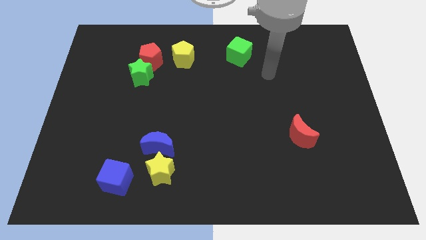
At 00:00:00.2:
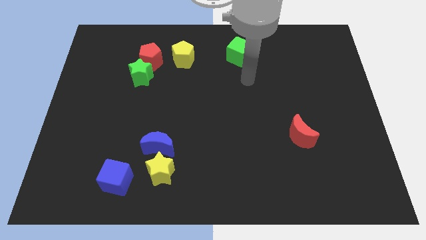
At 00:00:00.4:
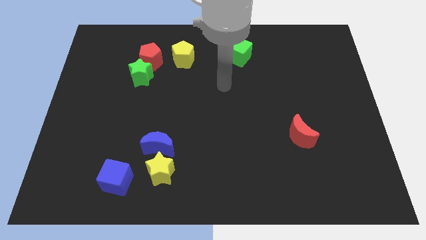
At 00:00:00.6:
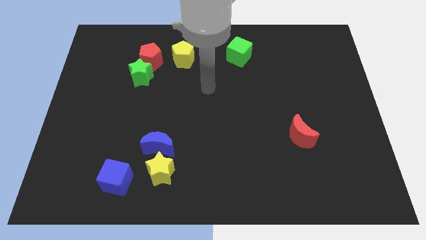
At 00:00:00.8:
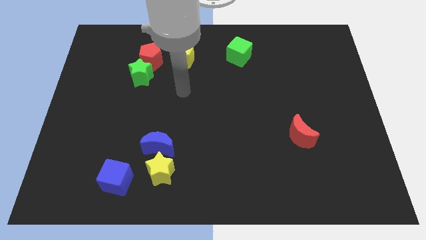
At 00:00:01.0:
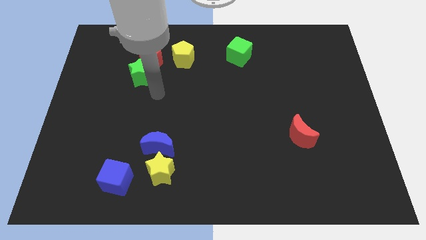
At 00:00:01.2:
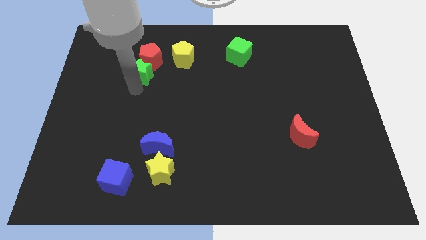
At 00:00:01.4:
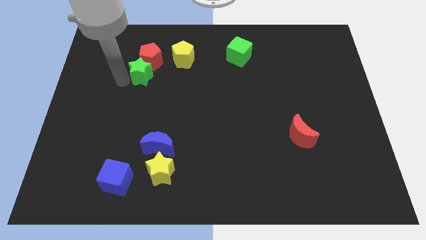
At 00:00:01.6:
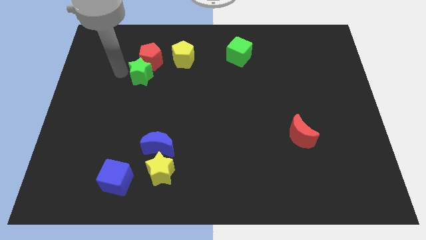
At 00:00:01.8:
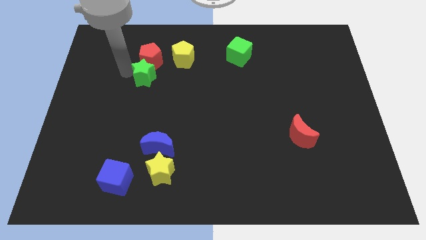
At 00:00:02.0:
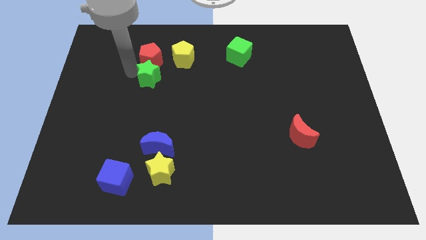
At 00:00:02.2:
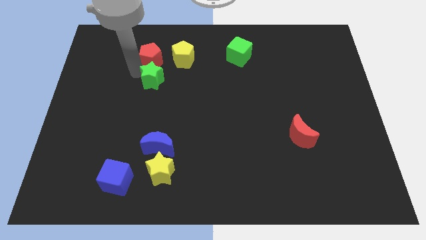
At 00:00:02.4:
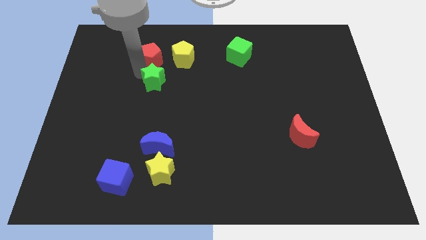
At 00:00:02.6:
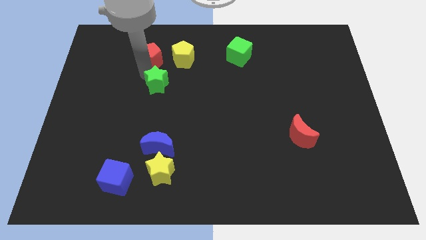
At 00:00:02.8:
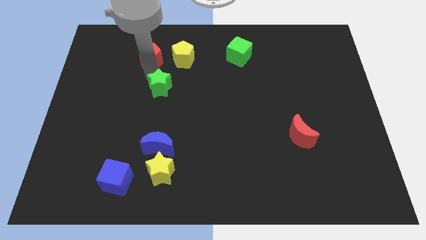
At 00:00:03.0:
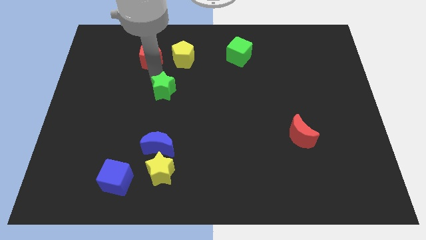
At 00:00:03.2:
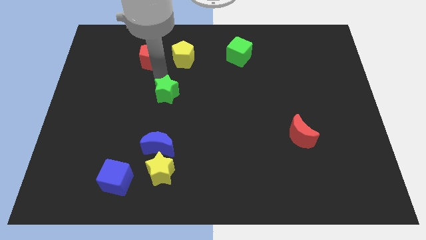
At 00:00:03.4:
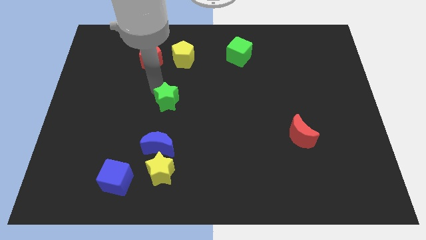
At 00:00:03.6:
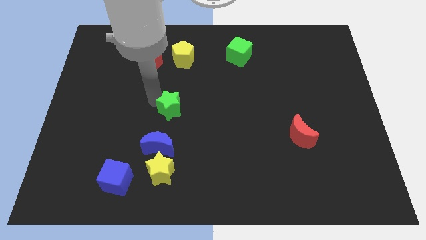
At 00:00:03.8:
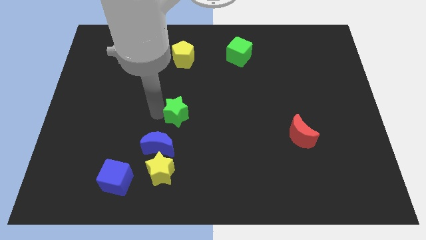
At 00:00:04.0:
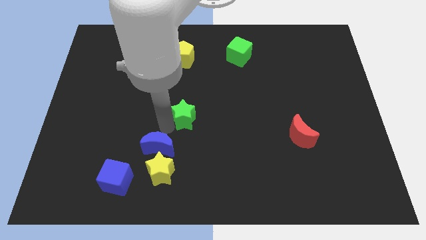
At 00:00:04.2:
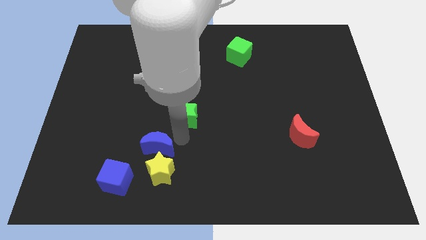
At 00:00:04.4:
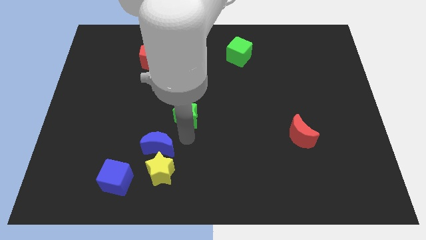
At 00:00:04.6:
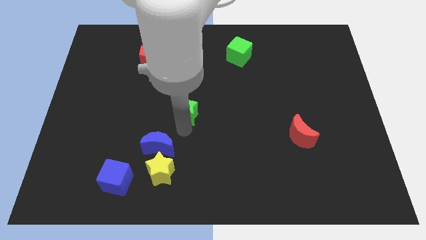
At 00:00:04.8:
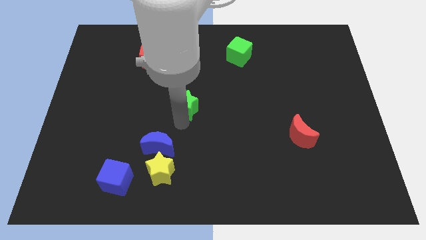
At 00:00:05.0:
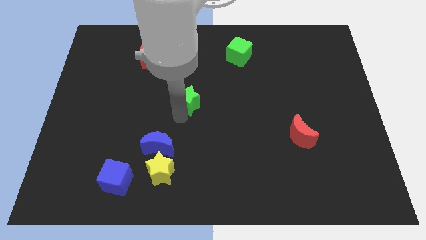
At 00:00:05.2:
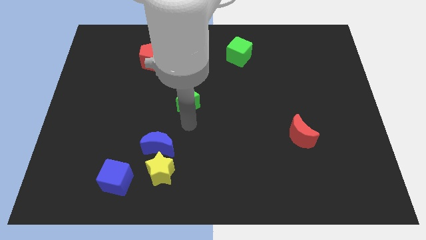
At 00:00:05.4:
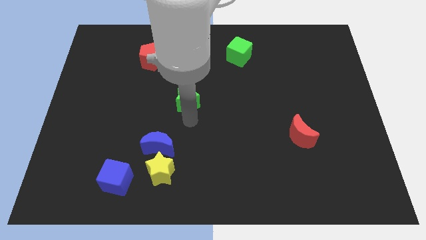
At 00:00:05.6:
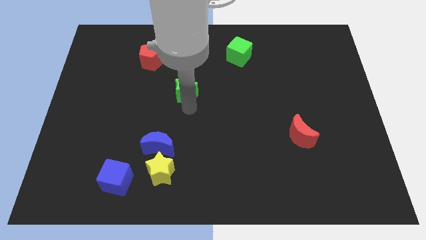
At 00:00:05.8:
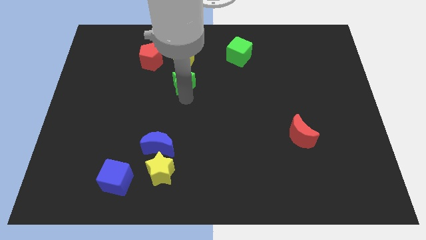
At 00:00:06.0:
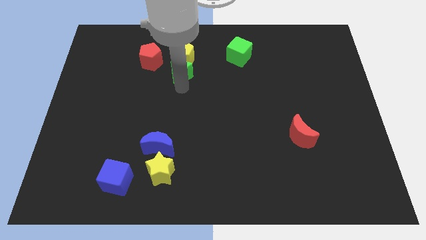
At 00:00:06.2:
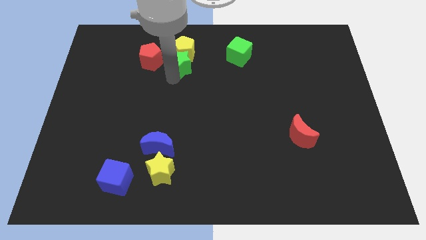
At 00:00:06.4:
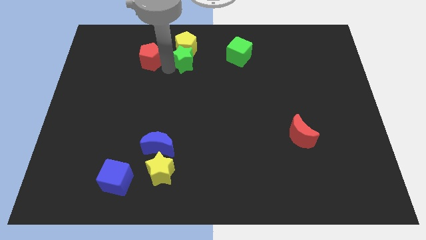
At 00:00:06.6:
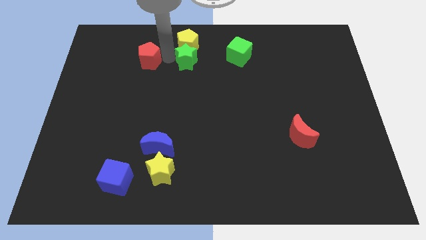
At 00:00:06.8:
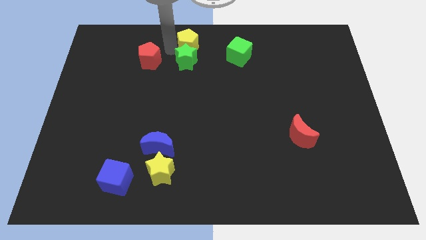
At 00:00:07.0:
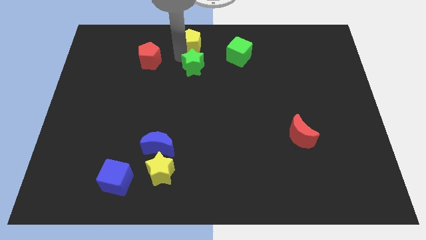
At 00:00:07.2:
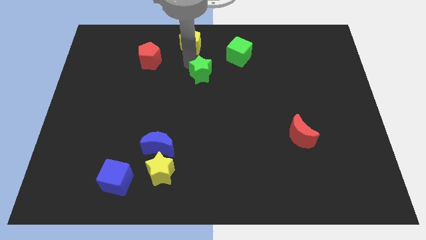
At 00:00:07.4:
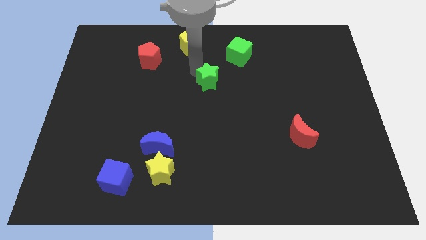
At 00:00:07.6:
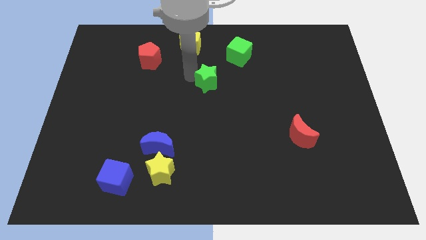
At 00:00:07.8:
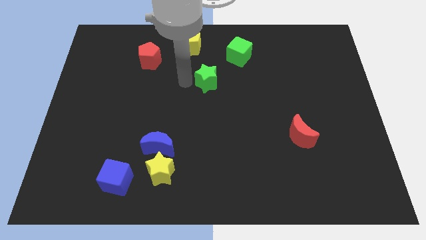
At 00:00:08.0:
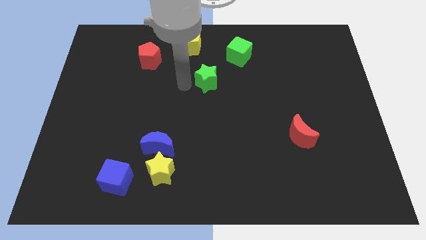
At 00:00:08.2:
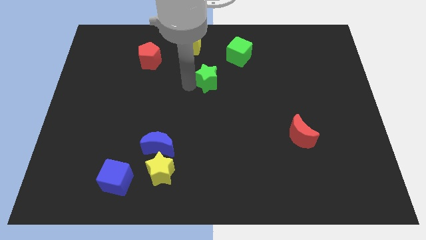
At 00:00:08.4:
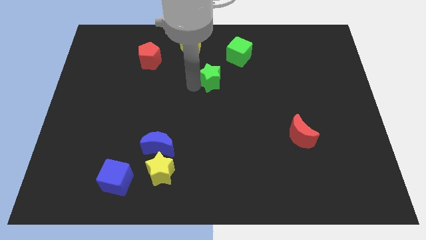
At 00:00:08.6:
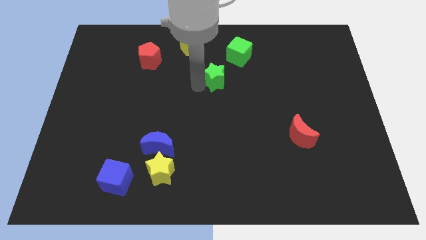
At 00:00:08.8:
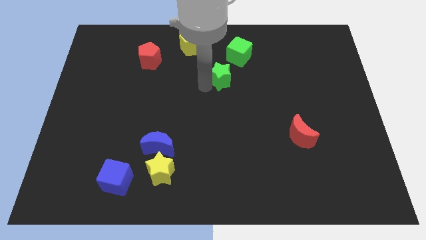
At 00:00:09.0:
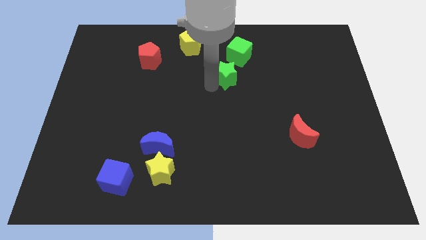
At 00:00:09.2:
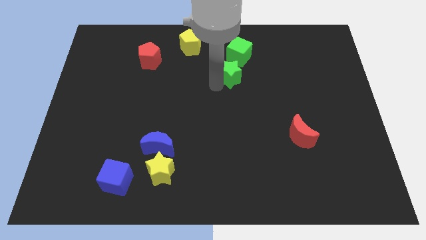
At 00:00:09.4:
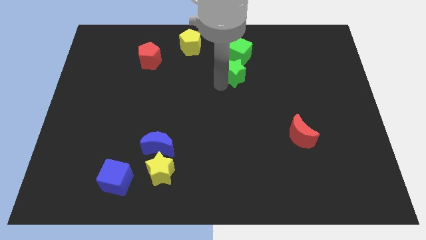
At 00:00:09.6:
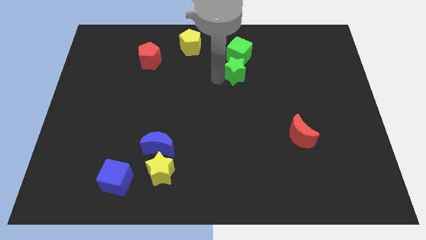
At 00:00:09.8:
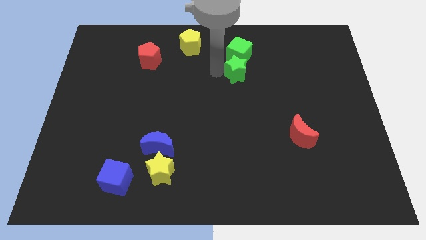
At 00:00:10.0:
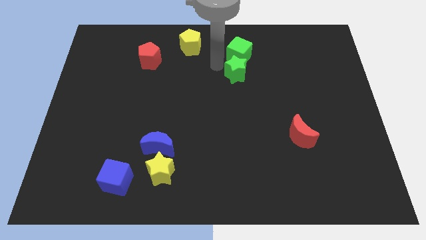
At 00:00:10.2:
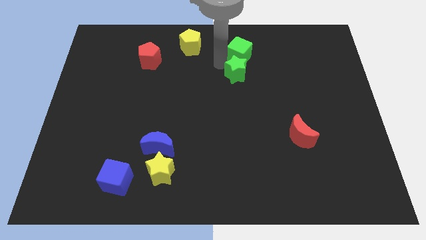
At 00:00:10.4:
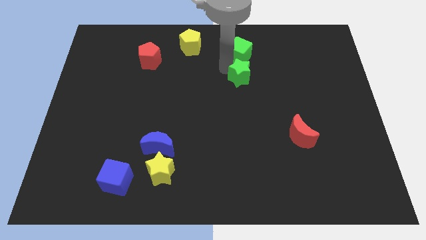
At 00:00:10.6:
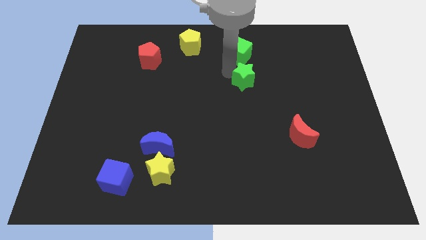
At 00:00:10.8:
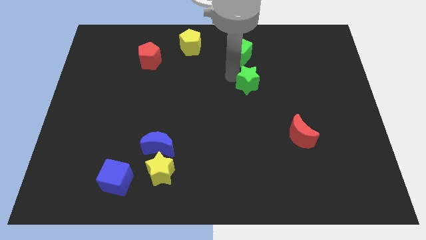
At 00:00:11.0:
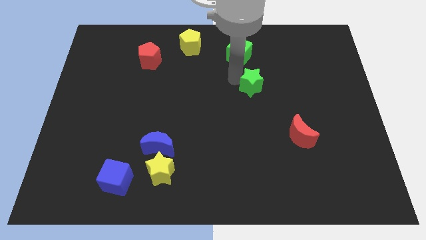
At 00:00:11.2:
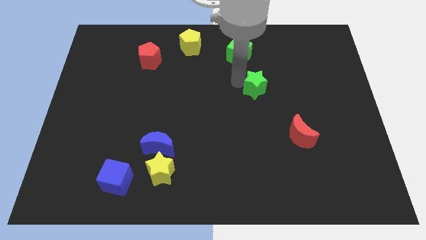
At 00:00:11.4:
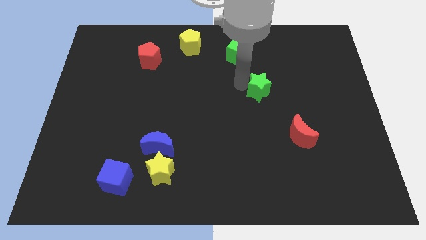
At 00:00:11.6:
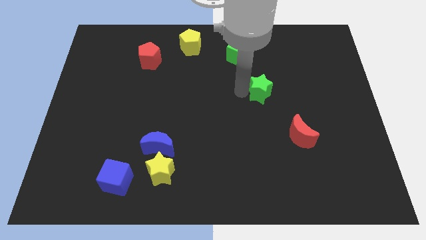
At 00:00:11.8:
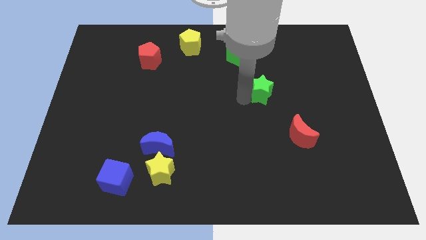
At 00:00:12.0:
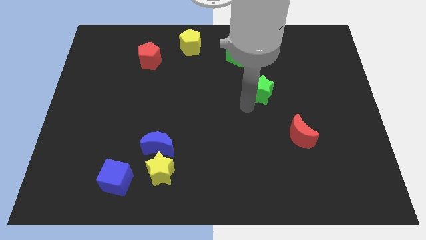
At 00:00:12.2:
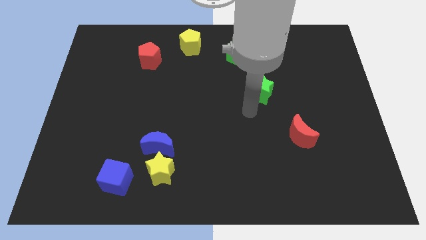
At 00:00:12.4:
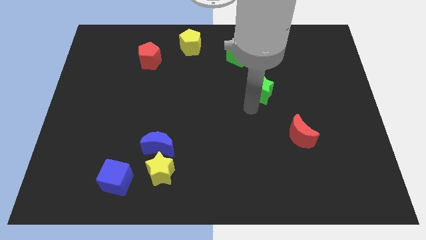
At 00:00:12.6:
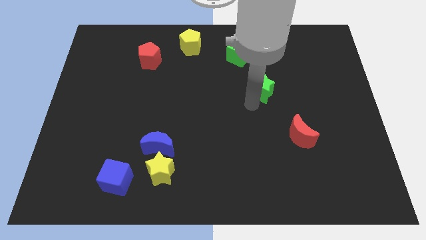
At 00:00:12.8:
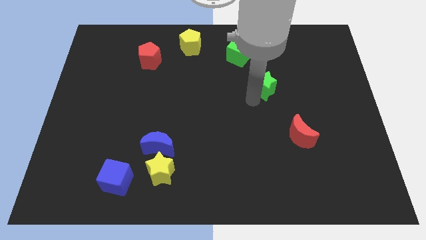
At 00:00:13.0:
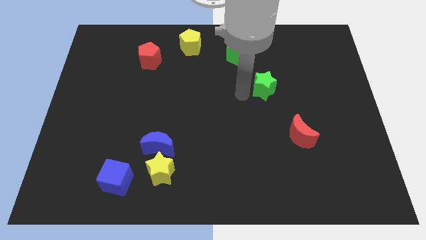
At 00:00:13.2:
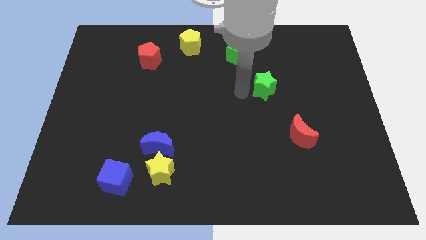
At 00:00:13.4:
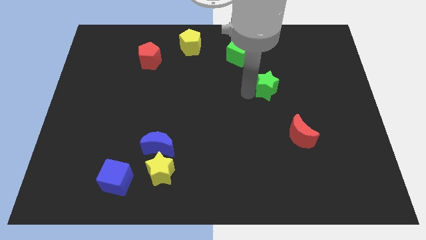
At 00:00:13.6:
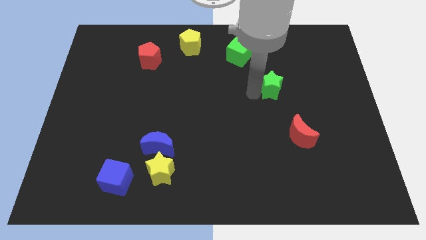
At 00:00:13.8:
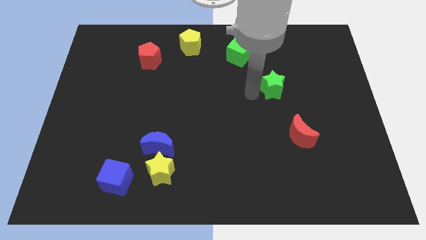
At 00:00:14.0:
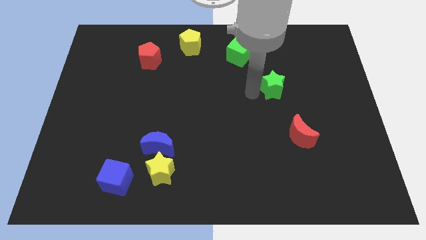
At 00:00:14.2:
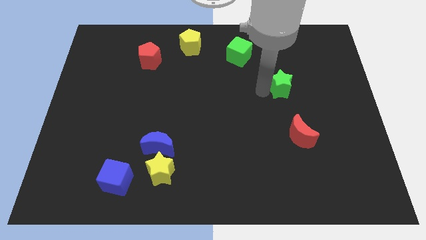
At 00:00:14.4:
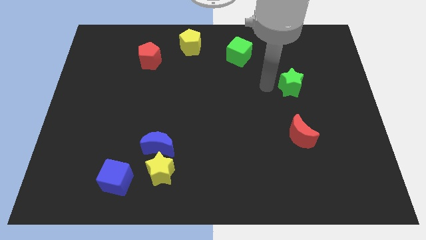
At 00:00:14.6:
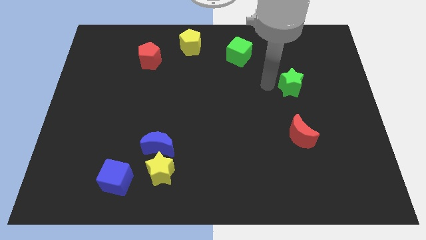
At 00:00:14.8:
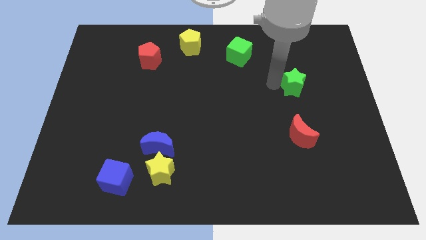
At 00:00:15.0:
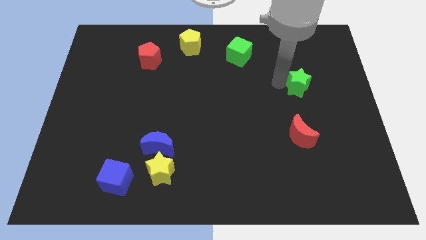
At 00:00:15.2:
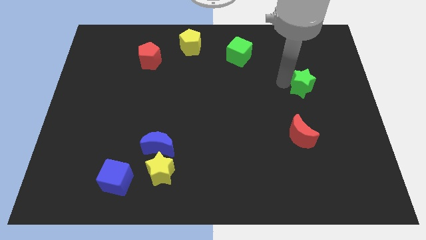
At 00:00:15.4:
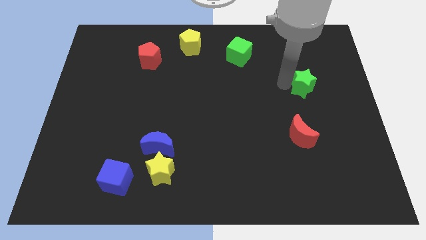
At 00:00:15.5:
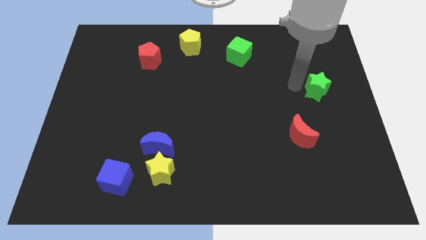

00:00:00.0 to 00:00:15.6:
push the green star to the right side
